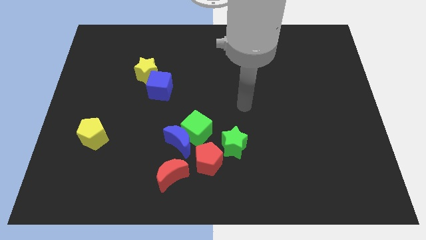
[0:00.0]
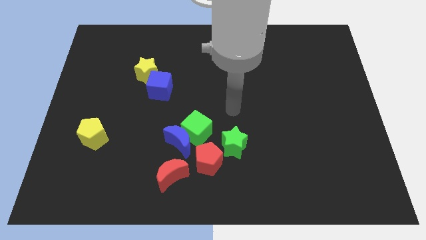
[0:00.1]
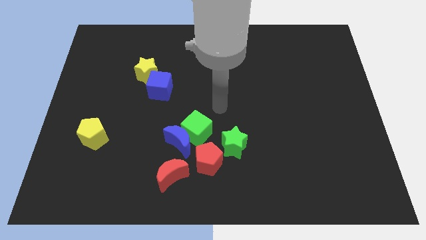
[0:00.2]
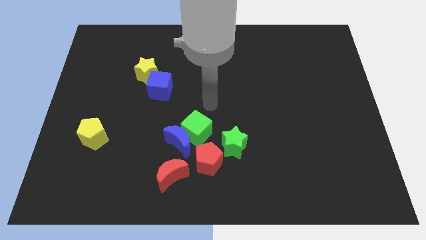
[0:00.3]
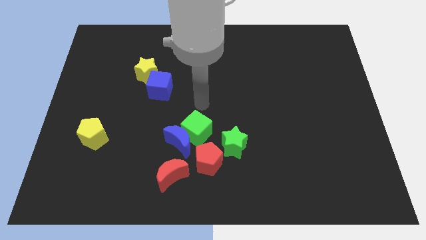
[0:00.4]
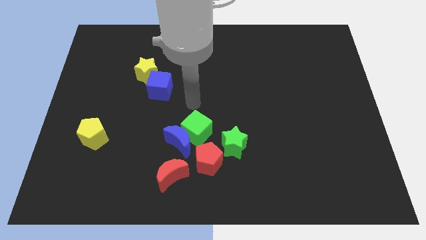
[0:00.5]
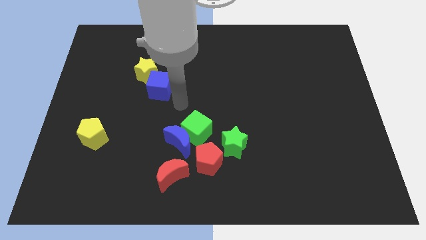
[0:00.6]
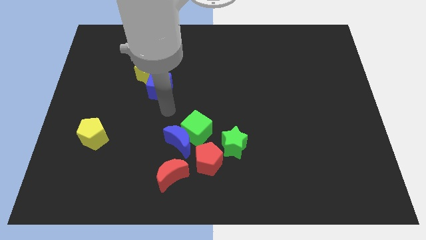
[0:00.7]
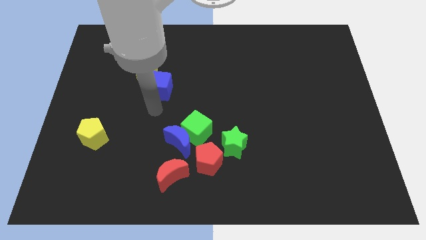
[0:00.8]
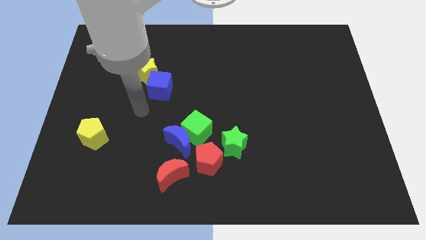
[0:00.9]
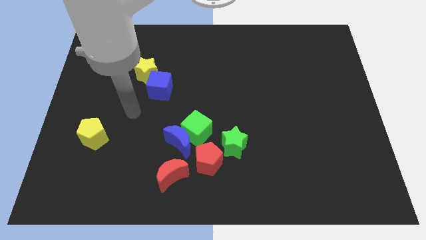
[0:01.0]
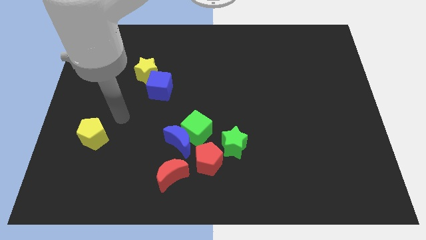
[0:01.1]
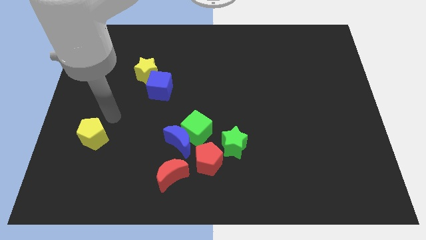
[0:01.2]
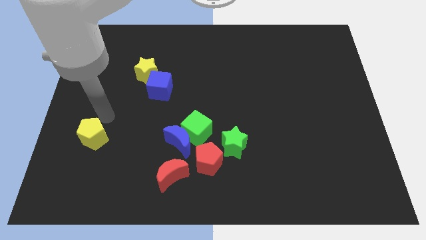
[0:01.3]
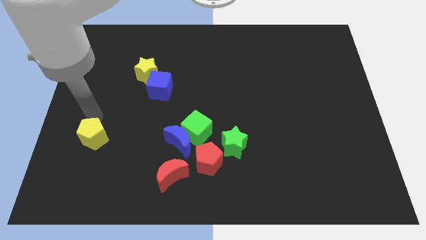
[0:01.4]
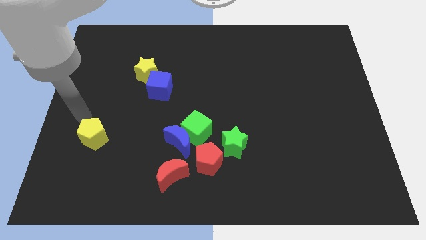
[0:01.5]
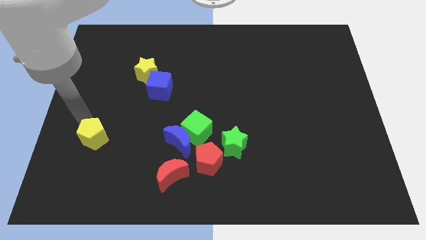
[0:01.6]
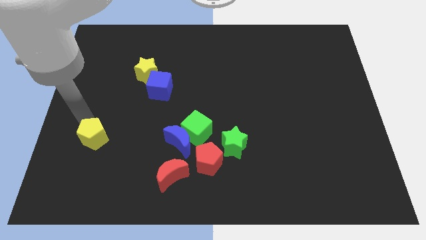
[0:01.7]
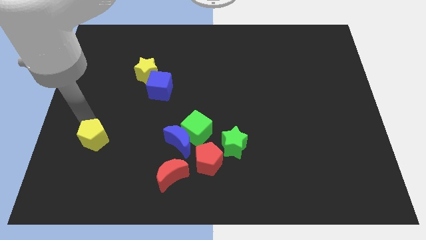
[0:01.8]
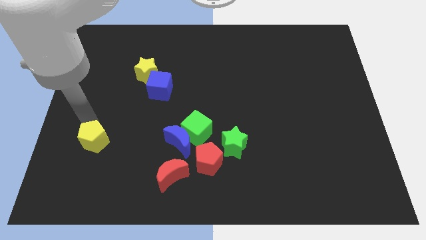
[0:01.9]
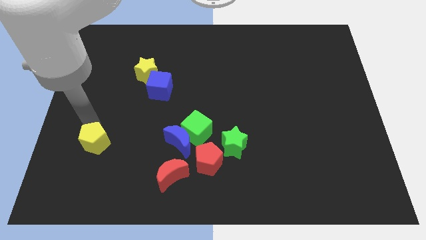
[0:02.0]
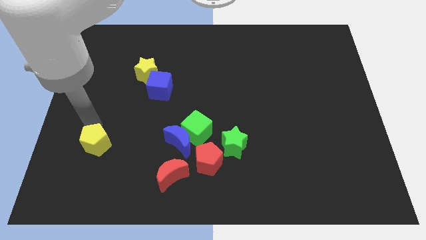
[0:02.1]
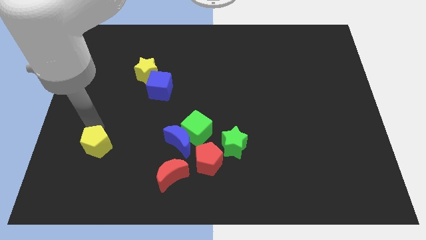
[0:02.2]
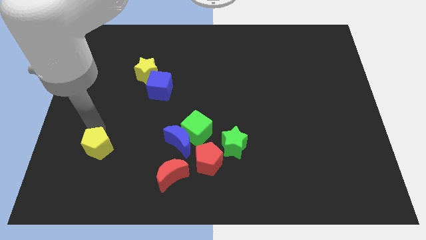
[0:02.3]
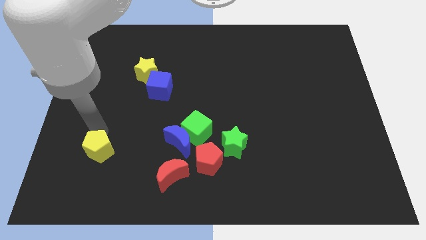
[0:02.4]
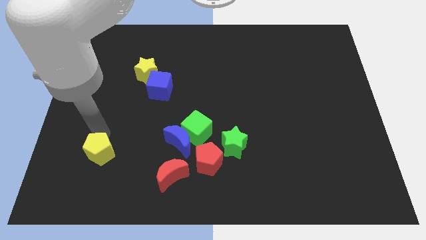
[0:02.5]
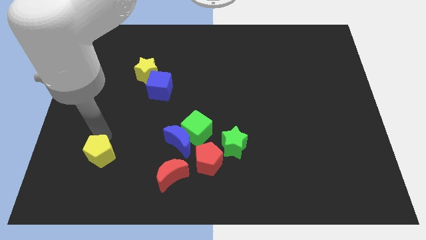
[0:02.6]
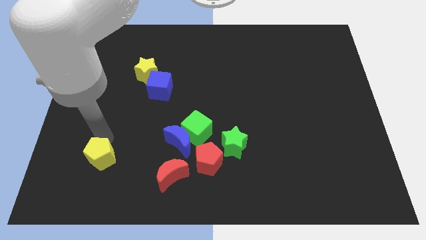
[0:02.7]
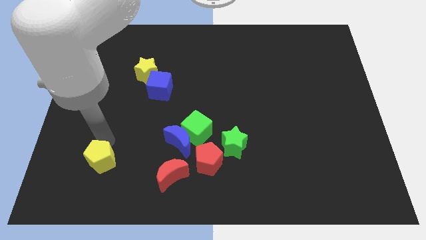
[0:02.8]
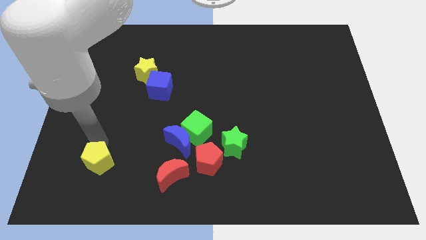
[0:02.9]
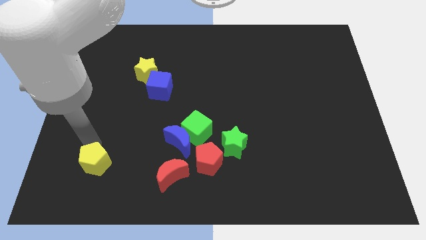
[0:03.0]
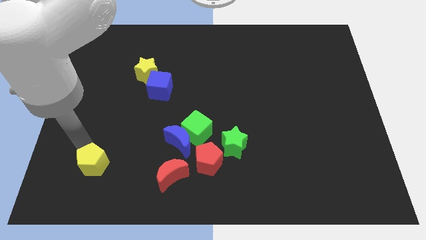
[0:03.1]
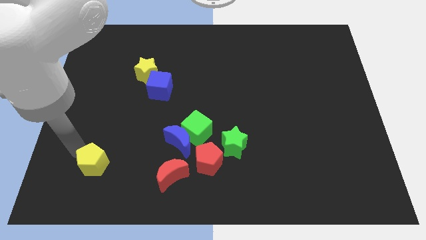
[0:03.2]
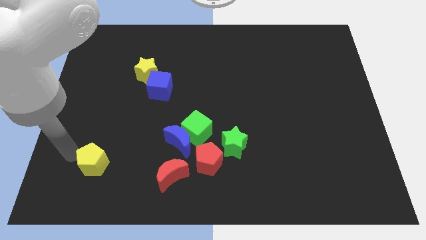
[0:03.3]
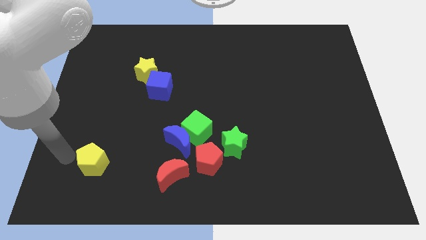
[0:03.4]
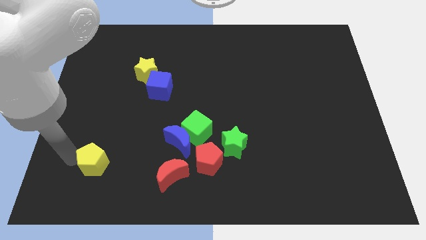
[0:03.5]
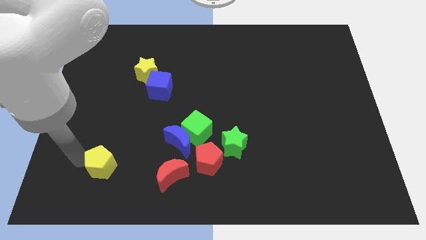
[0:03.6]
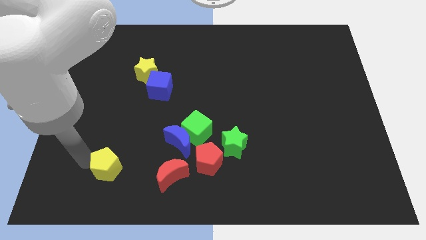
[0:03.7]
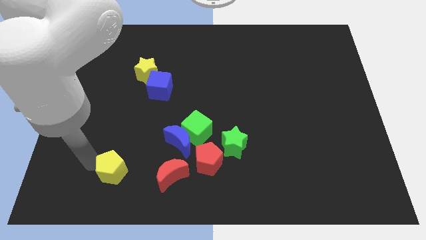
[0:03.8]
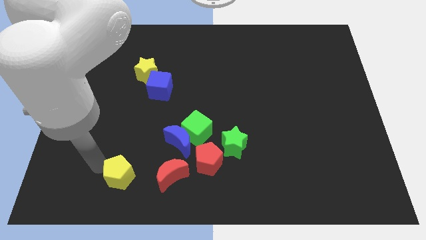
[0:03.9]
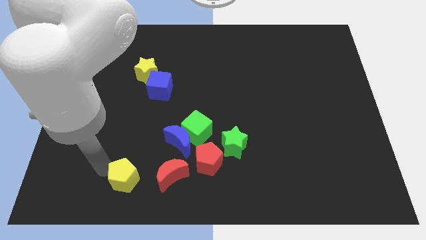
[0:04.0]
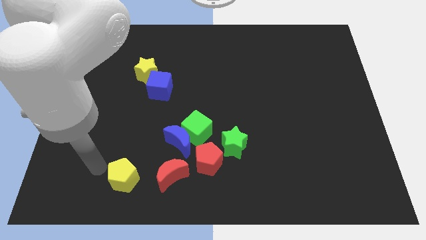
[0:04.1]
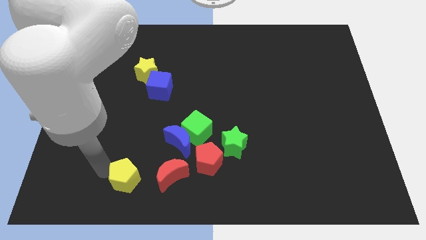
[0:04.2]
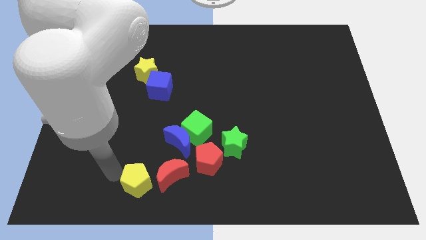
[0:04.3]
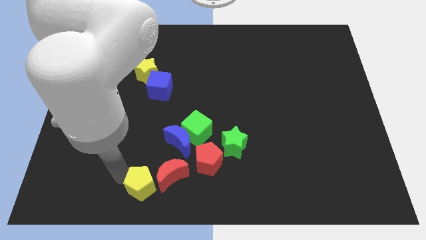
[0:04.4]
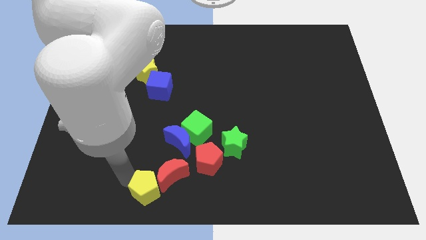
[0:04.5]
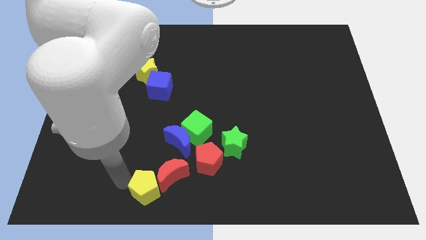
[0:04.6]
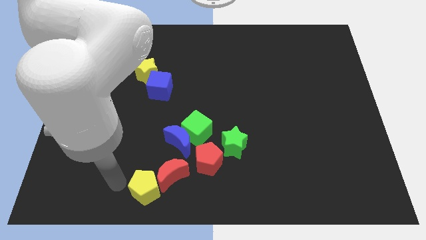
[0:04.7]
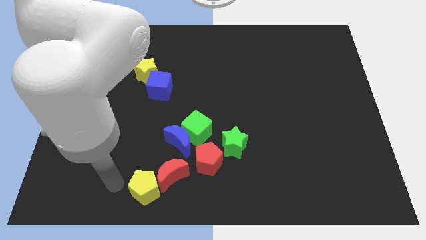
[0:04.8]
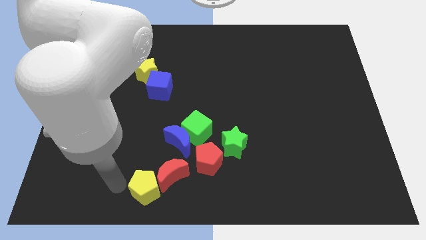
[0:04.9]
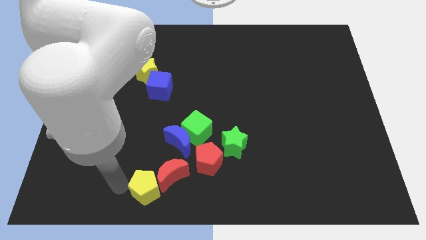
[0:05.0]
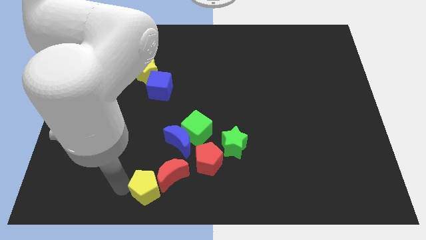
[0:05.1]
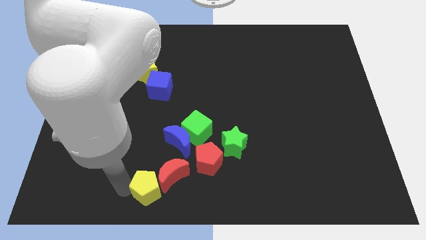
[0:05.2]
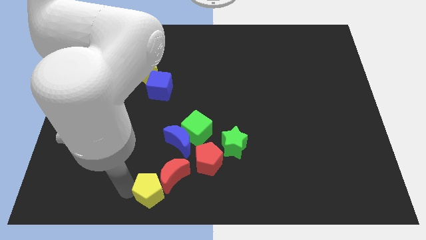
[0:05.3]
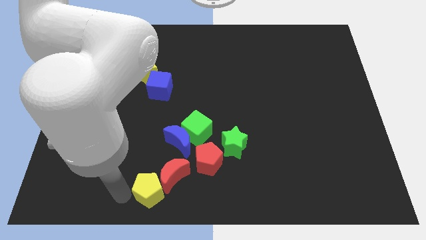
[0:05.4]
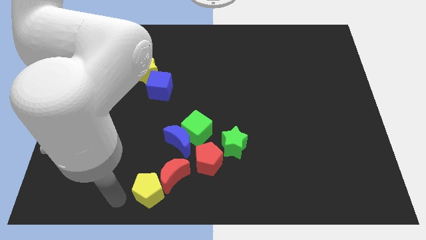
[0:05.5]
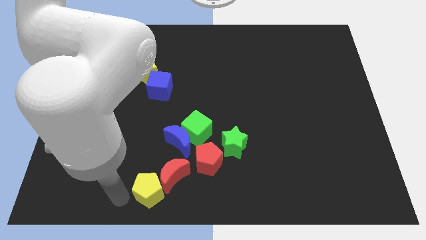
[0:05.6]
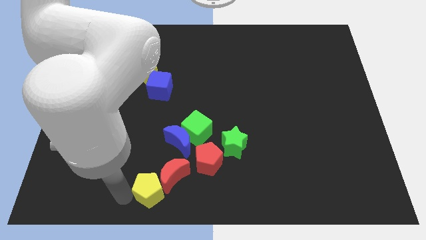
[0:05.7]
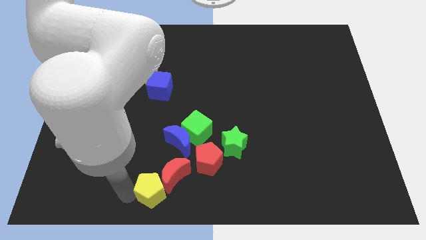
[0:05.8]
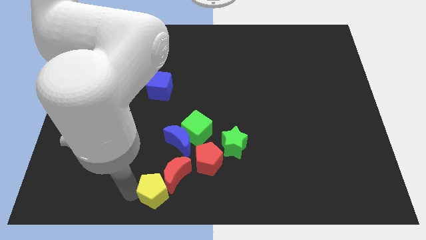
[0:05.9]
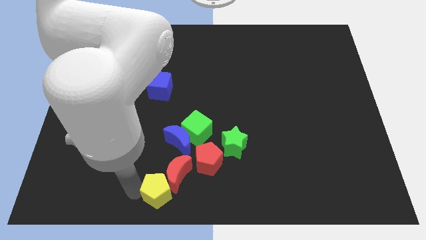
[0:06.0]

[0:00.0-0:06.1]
slide the yellow pentagon to the bottom left of the red pentagon
